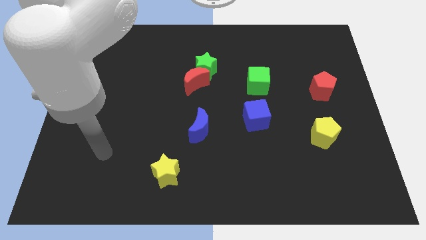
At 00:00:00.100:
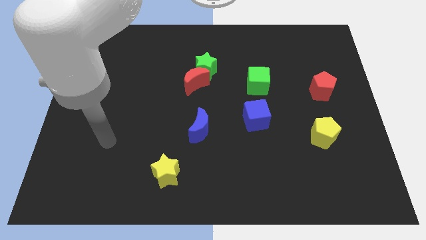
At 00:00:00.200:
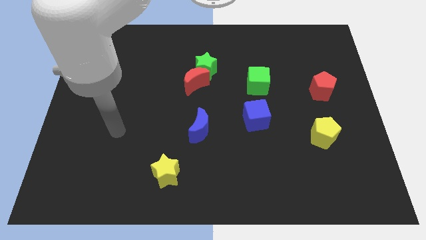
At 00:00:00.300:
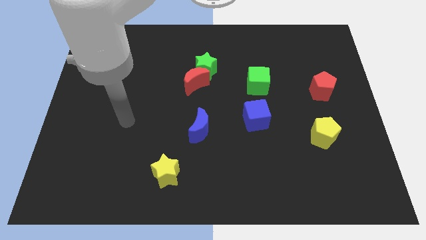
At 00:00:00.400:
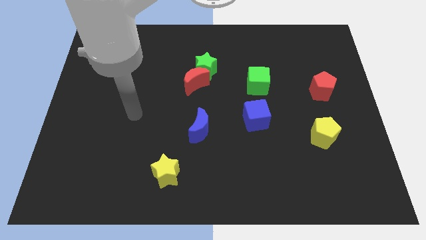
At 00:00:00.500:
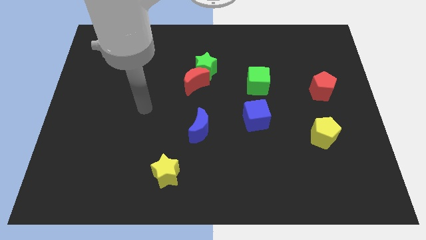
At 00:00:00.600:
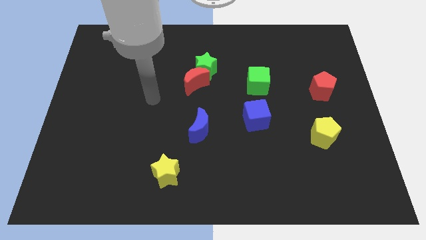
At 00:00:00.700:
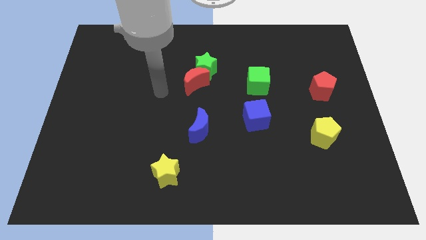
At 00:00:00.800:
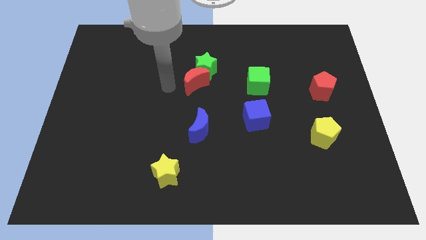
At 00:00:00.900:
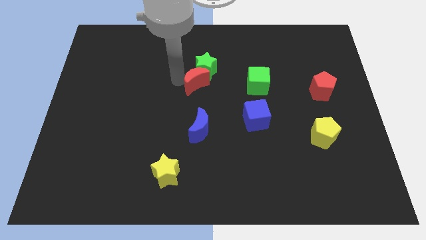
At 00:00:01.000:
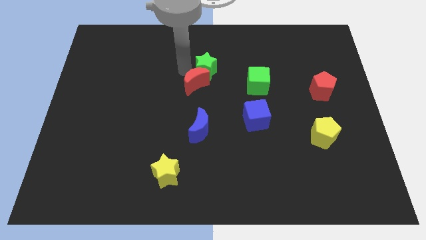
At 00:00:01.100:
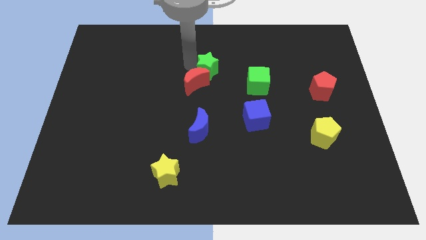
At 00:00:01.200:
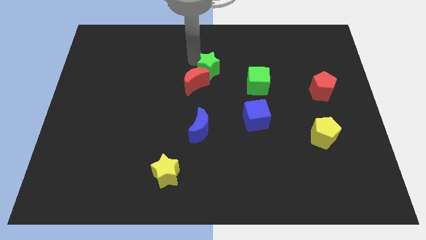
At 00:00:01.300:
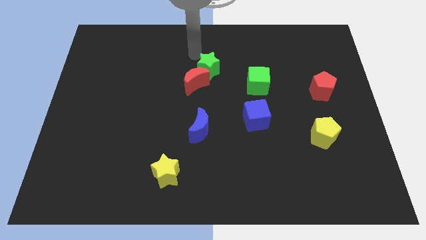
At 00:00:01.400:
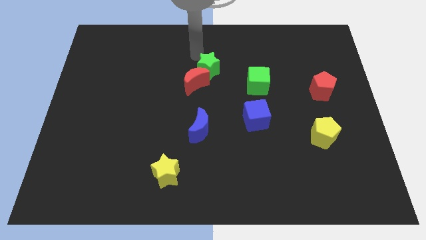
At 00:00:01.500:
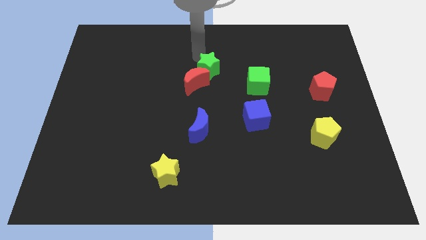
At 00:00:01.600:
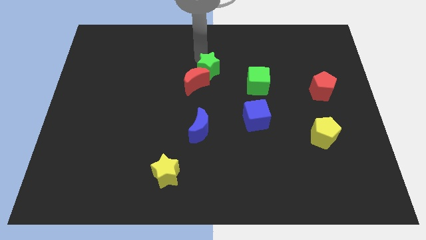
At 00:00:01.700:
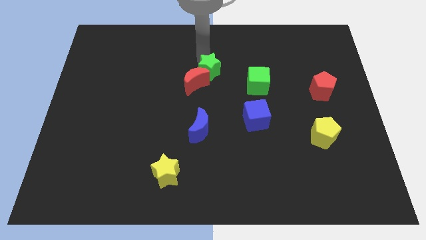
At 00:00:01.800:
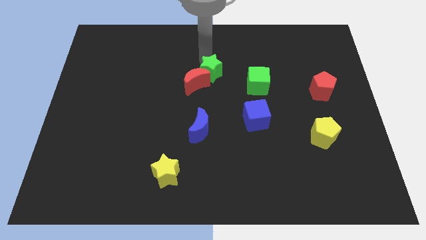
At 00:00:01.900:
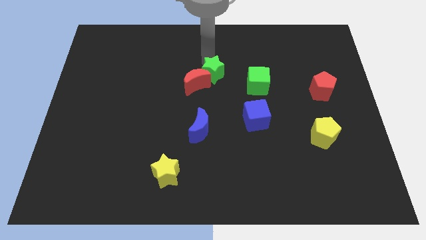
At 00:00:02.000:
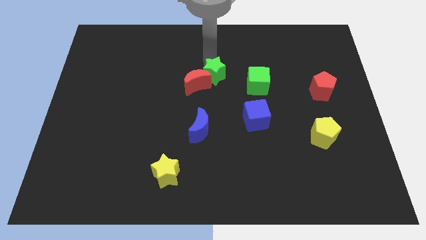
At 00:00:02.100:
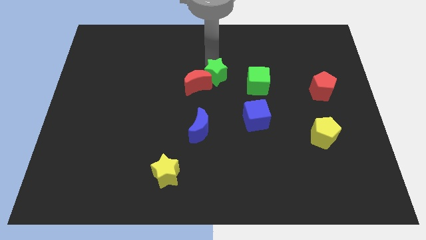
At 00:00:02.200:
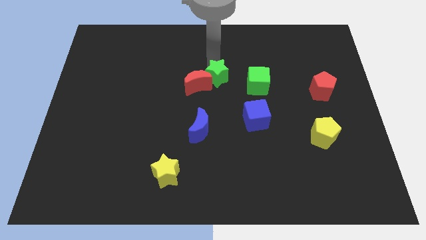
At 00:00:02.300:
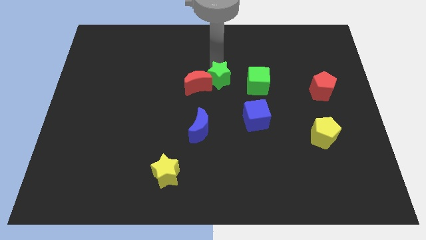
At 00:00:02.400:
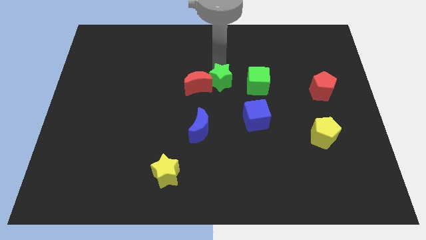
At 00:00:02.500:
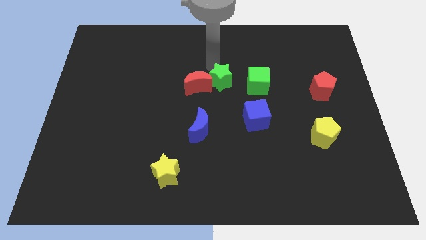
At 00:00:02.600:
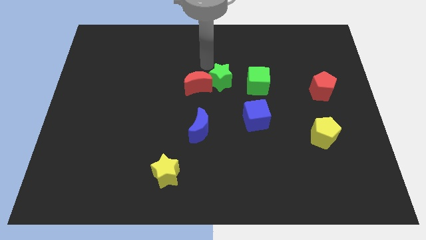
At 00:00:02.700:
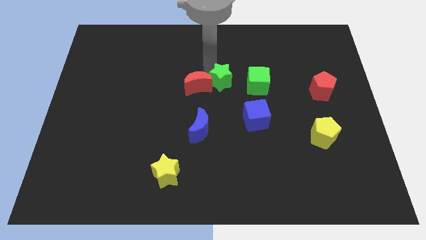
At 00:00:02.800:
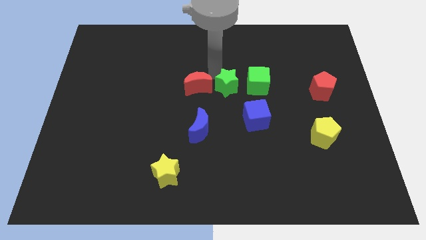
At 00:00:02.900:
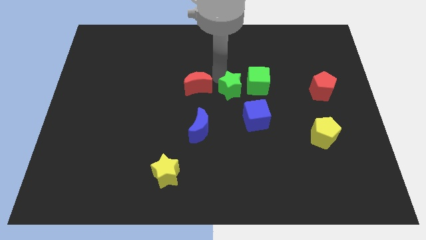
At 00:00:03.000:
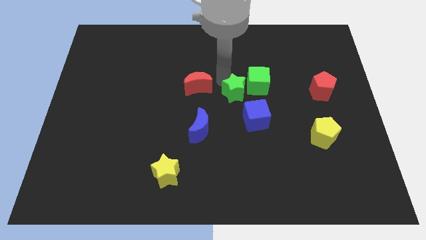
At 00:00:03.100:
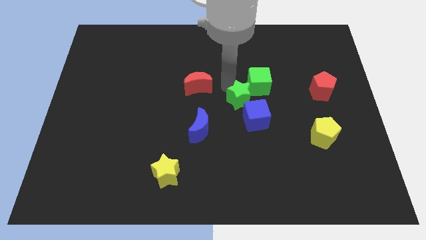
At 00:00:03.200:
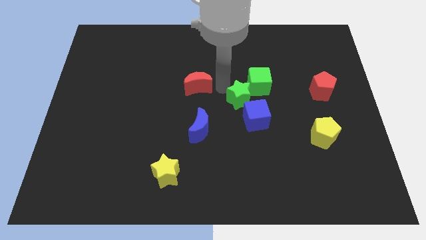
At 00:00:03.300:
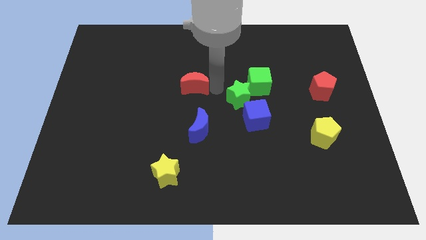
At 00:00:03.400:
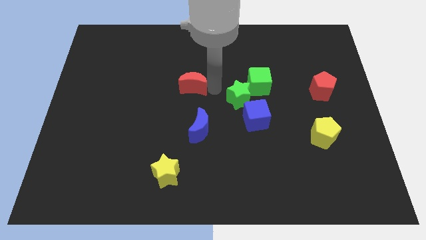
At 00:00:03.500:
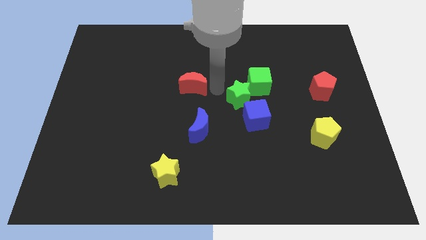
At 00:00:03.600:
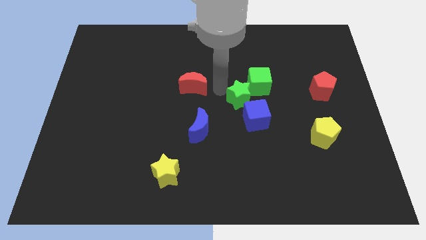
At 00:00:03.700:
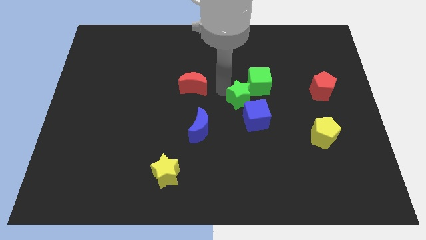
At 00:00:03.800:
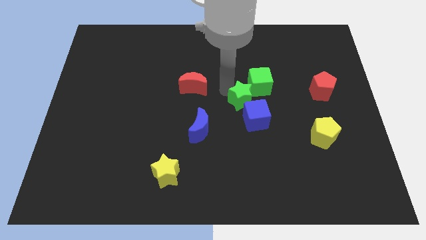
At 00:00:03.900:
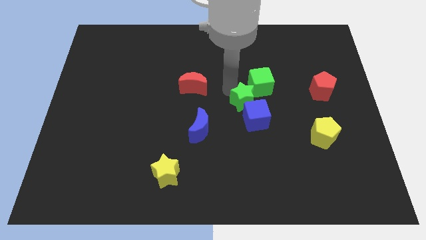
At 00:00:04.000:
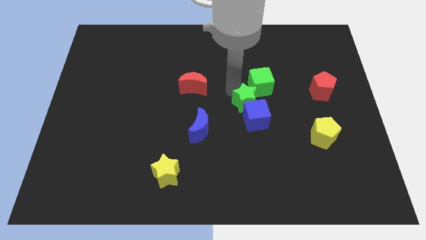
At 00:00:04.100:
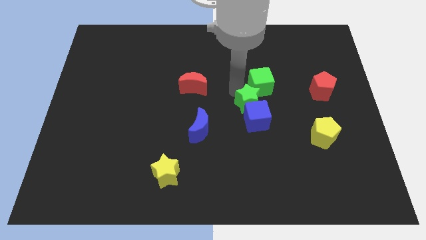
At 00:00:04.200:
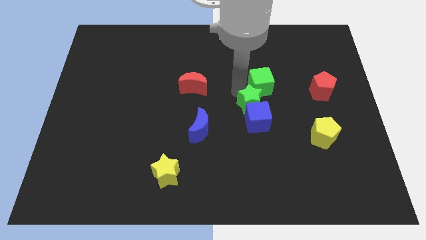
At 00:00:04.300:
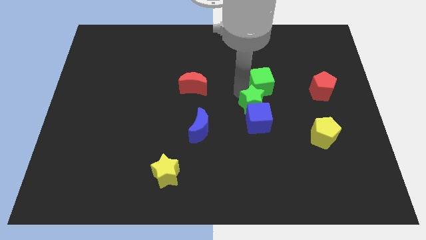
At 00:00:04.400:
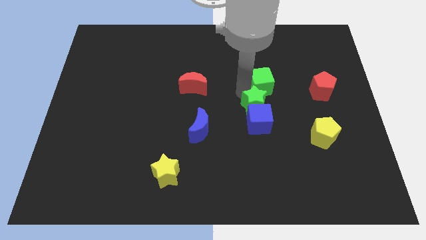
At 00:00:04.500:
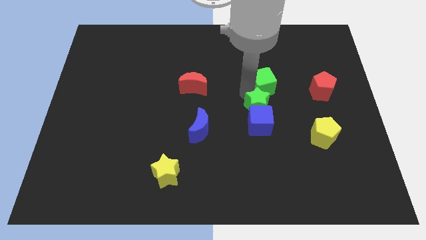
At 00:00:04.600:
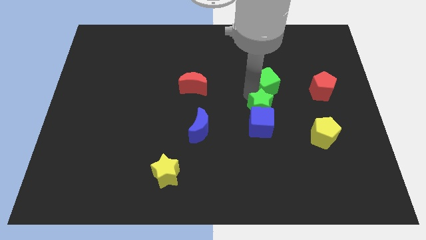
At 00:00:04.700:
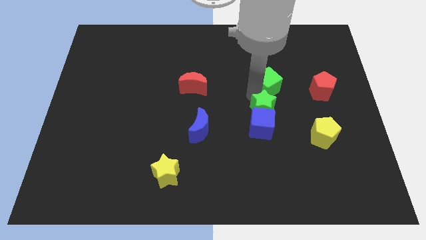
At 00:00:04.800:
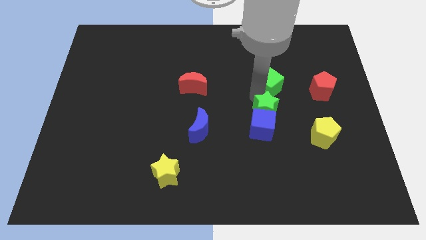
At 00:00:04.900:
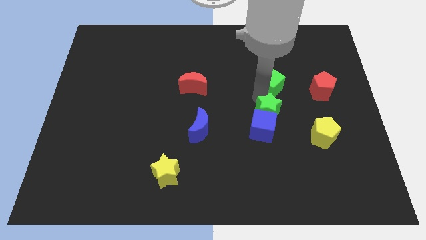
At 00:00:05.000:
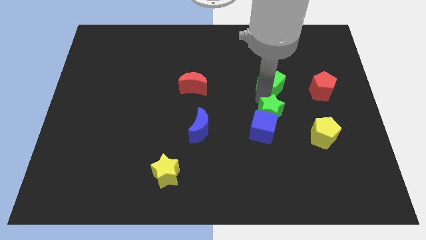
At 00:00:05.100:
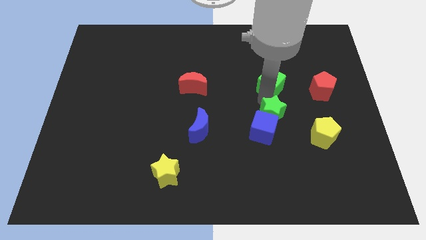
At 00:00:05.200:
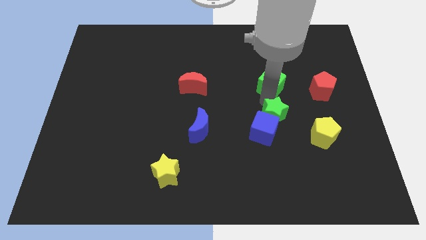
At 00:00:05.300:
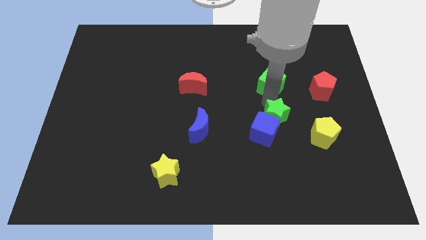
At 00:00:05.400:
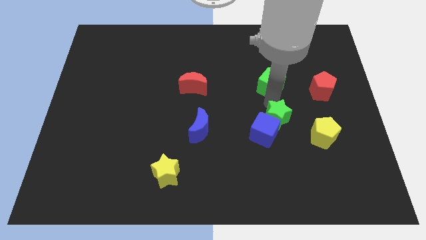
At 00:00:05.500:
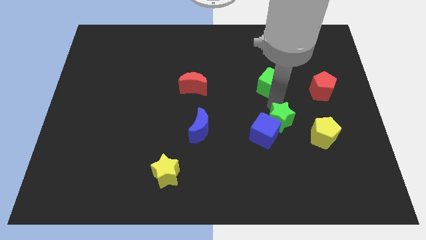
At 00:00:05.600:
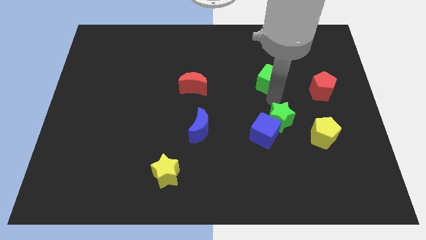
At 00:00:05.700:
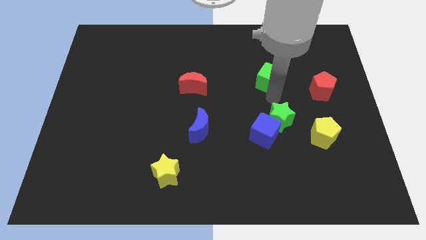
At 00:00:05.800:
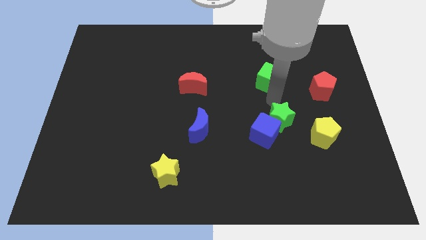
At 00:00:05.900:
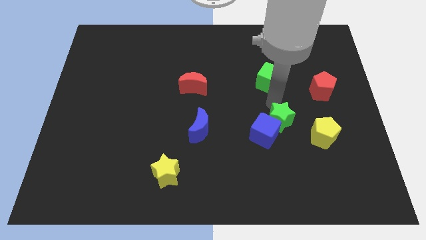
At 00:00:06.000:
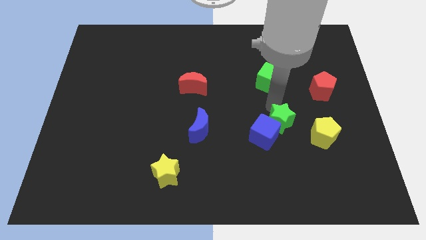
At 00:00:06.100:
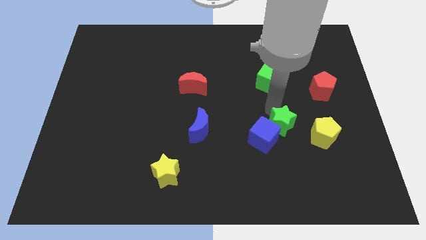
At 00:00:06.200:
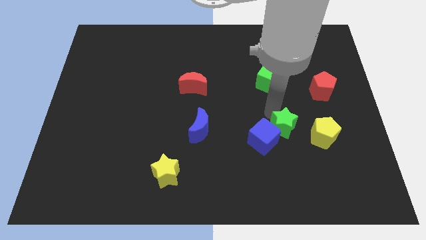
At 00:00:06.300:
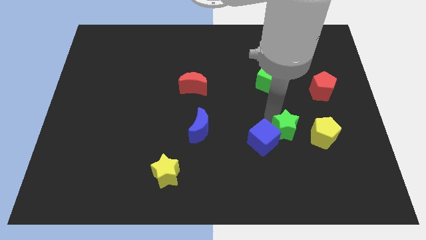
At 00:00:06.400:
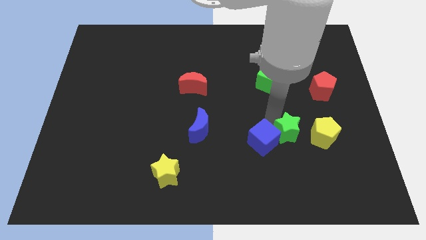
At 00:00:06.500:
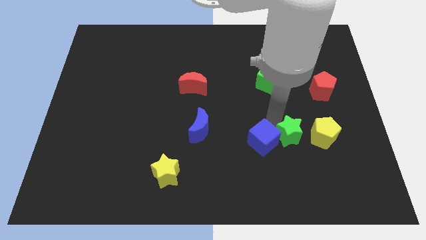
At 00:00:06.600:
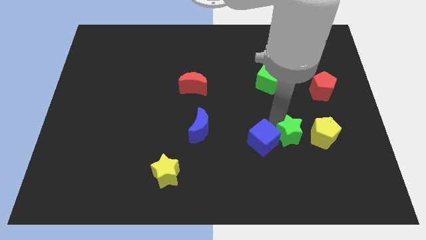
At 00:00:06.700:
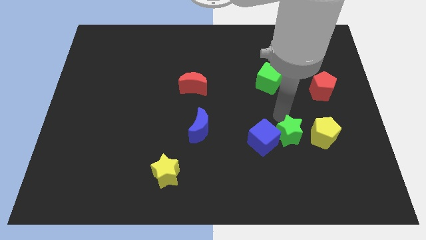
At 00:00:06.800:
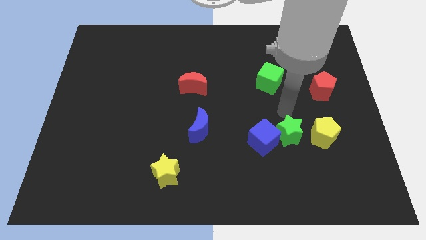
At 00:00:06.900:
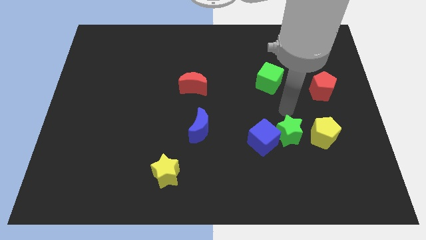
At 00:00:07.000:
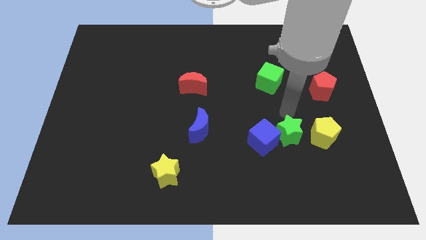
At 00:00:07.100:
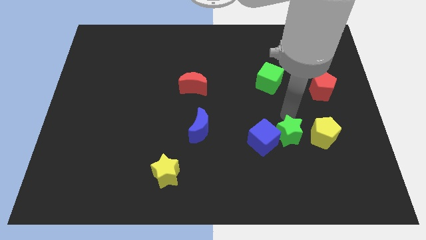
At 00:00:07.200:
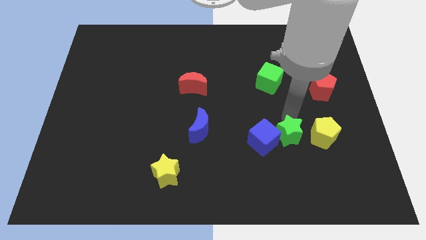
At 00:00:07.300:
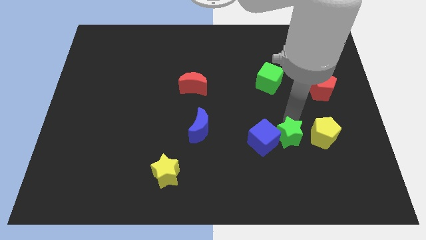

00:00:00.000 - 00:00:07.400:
move the green star diagonally down and to the right of the blue cube
